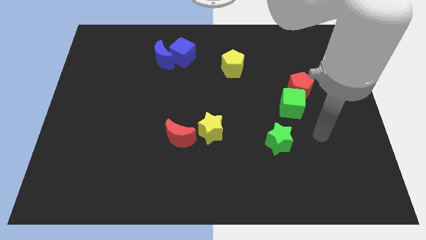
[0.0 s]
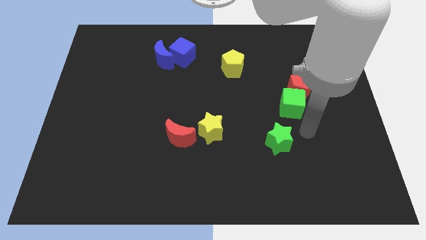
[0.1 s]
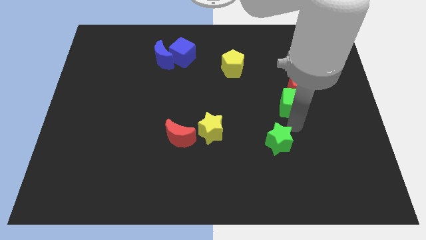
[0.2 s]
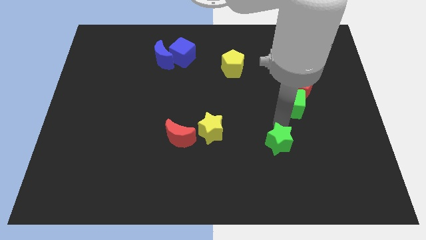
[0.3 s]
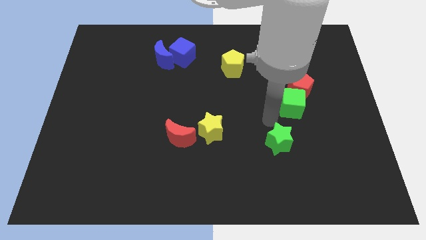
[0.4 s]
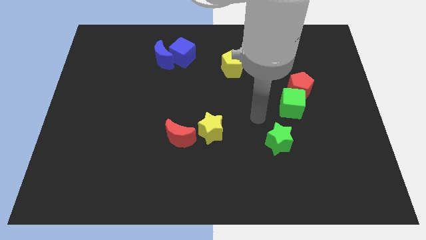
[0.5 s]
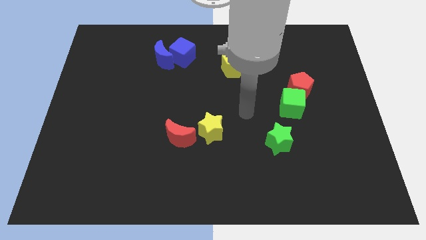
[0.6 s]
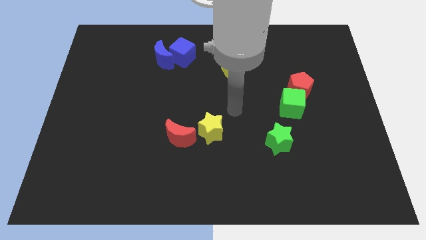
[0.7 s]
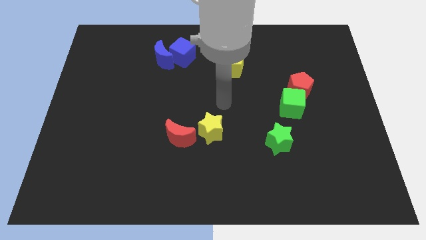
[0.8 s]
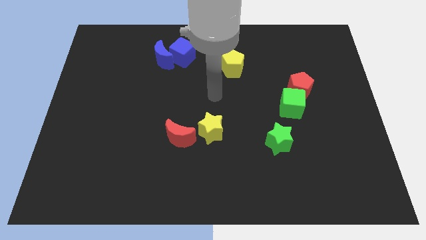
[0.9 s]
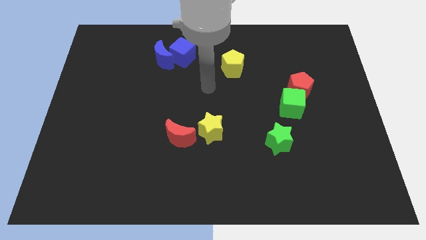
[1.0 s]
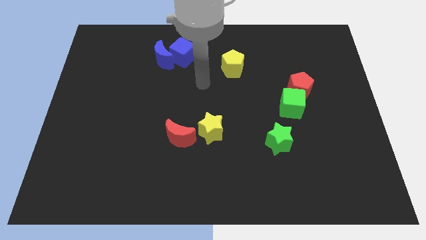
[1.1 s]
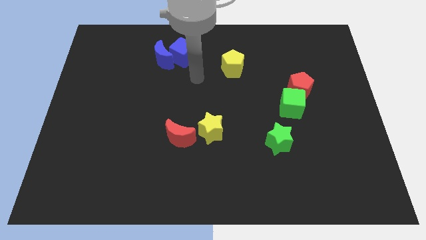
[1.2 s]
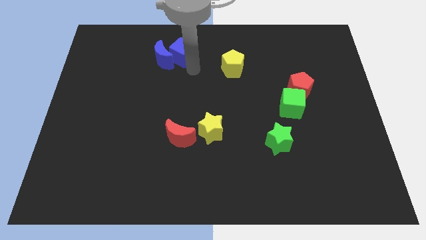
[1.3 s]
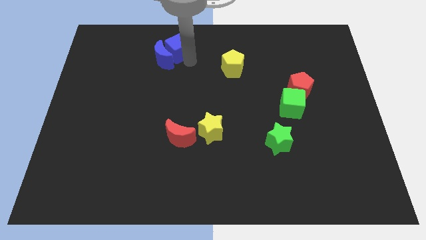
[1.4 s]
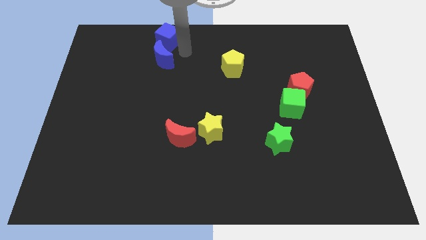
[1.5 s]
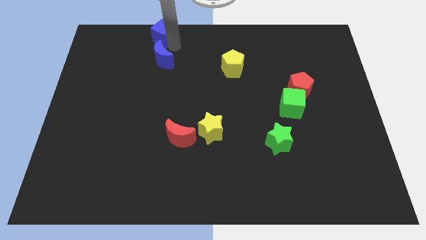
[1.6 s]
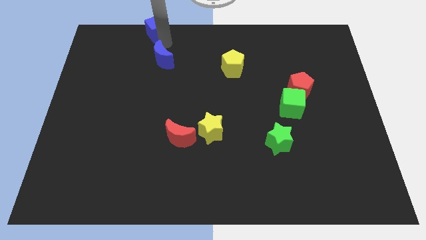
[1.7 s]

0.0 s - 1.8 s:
move the blue moon away from the blue cube

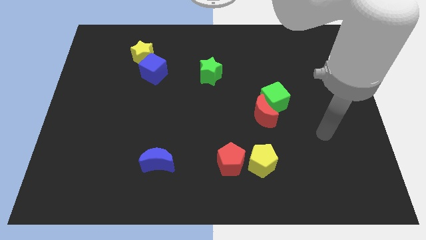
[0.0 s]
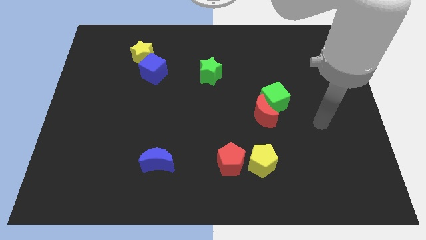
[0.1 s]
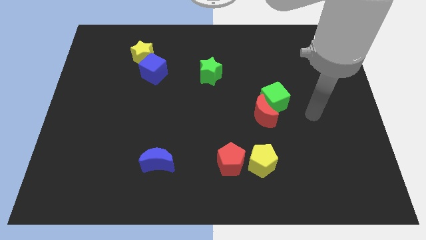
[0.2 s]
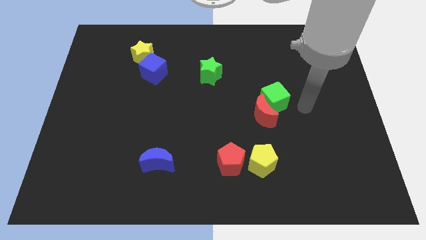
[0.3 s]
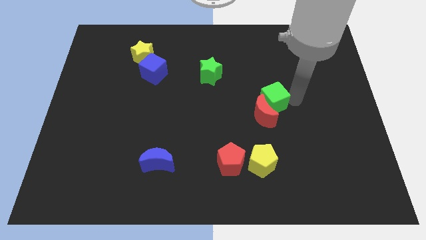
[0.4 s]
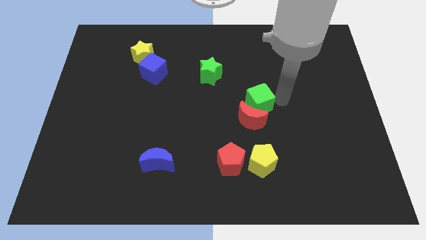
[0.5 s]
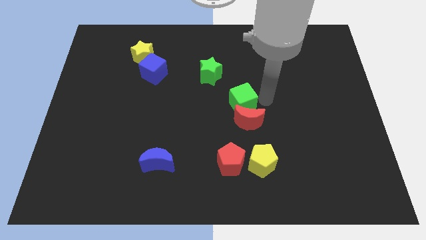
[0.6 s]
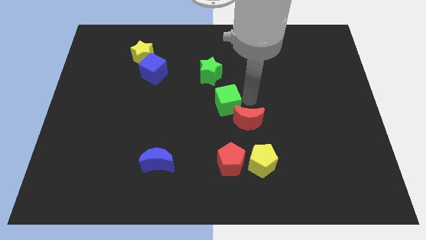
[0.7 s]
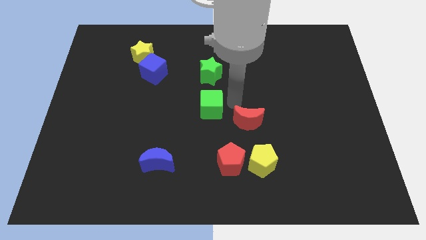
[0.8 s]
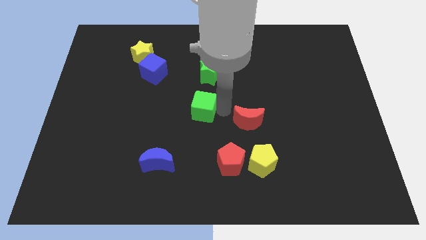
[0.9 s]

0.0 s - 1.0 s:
separate the red moon from the green cube

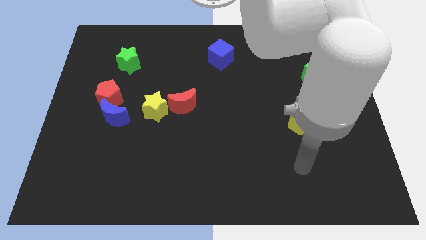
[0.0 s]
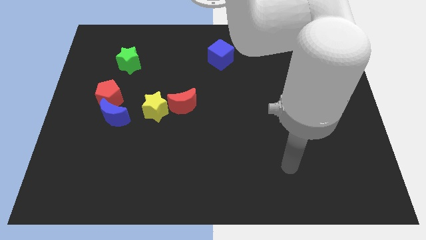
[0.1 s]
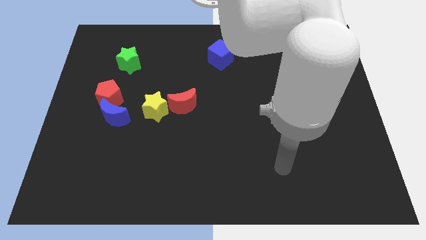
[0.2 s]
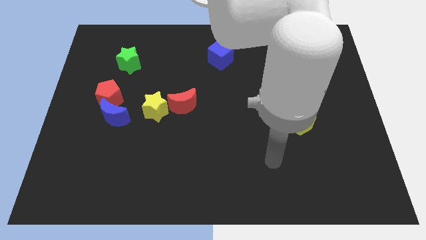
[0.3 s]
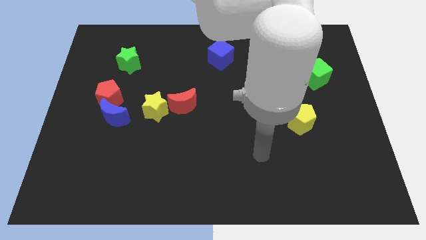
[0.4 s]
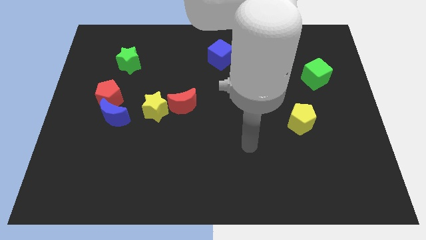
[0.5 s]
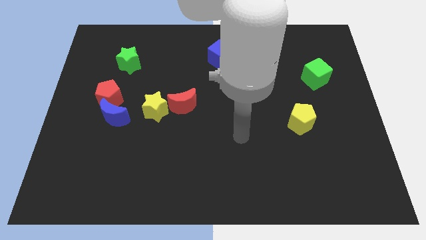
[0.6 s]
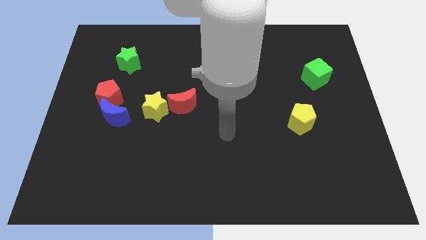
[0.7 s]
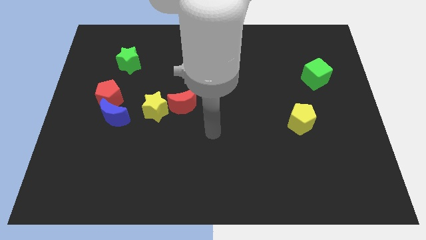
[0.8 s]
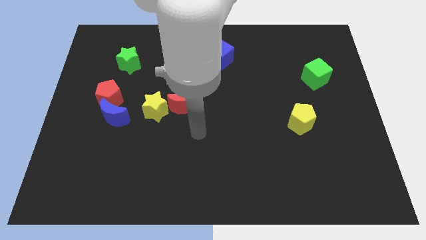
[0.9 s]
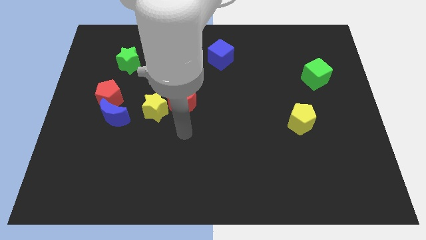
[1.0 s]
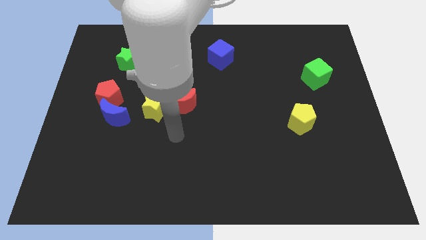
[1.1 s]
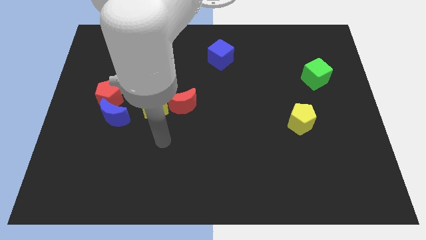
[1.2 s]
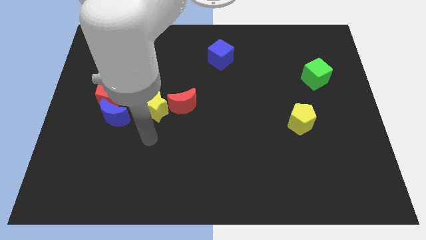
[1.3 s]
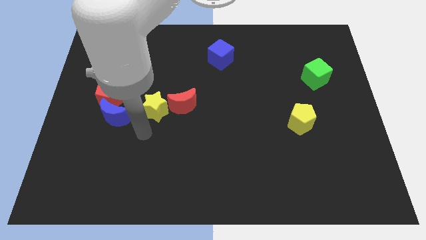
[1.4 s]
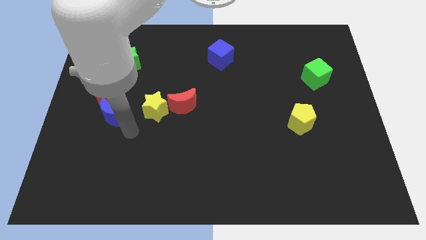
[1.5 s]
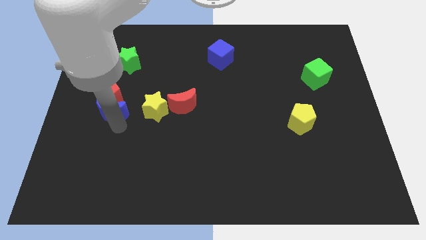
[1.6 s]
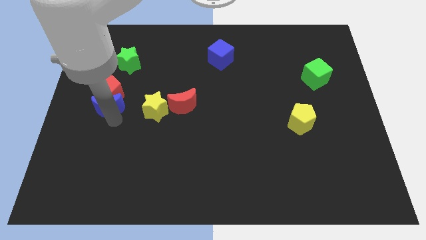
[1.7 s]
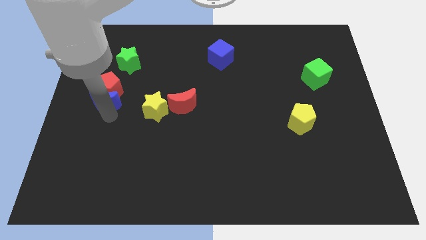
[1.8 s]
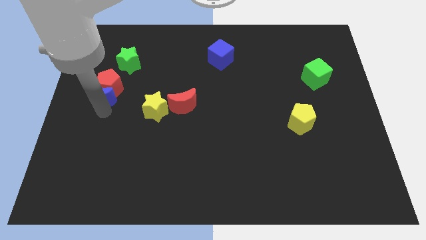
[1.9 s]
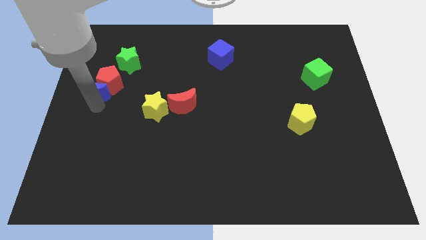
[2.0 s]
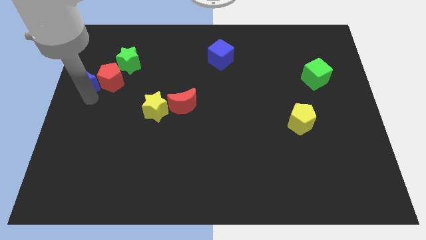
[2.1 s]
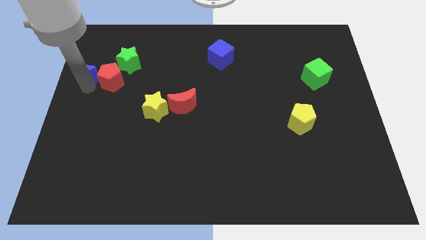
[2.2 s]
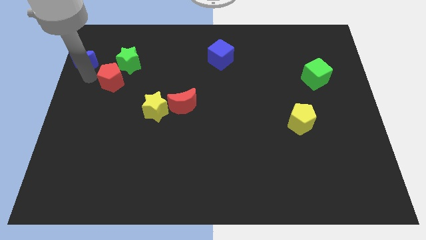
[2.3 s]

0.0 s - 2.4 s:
move the red pentagon away from the blue moon

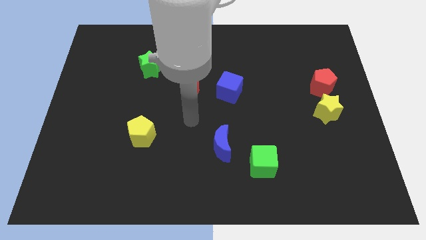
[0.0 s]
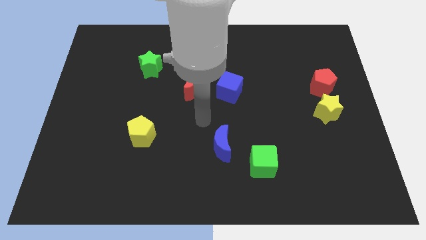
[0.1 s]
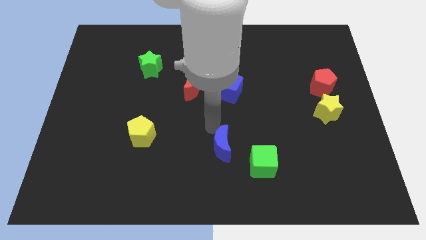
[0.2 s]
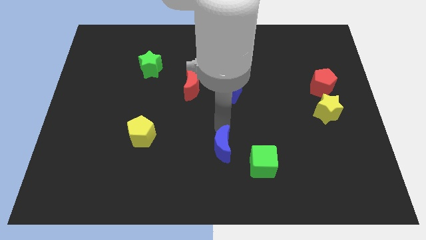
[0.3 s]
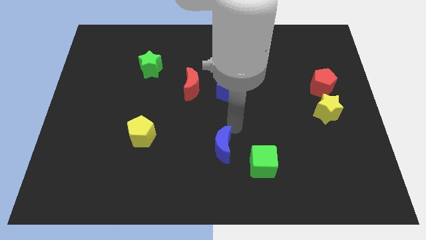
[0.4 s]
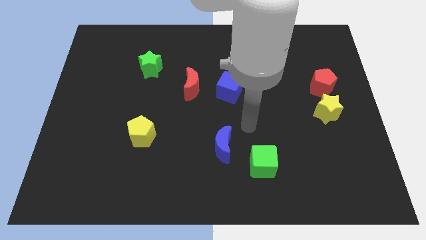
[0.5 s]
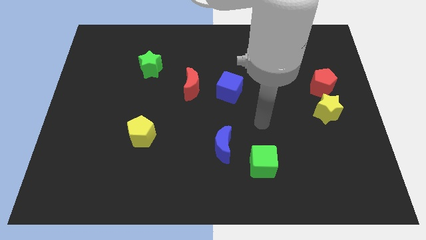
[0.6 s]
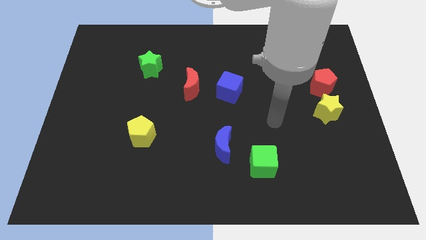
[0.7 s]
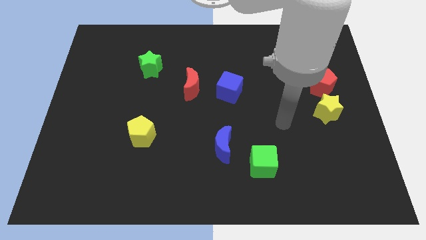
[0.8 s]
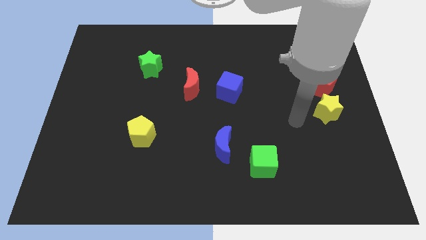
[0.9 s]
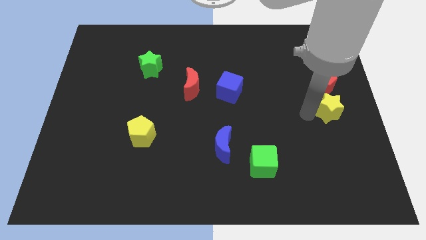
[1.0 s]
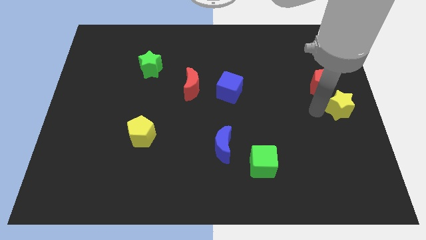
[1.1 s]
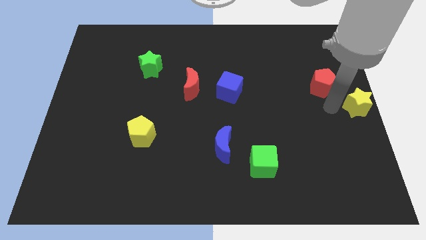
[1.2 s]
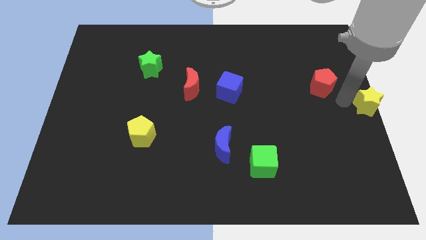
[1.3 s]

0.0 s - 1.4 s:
pull the red pentagon apart from the yellow star

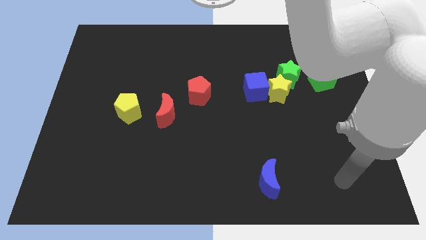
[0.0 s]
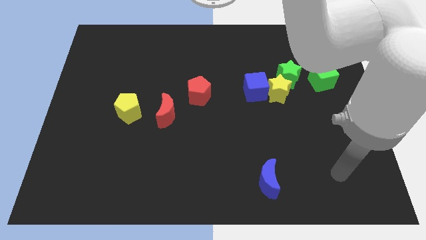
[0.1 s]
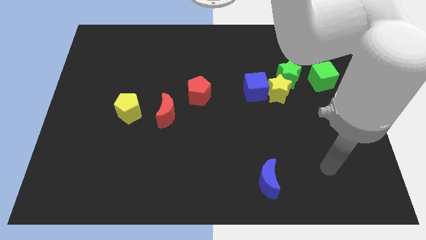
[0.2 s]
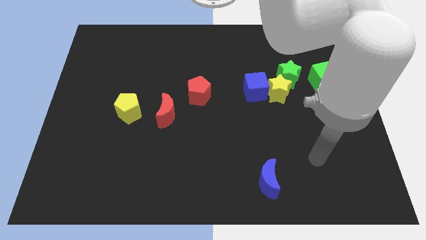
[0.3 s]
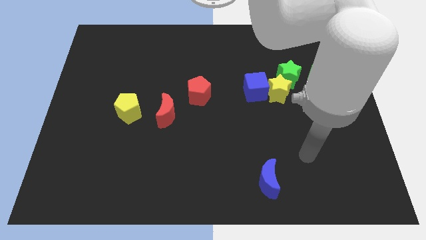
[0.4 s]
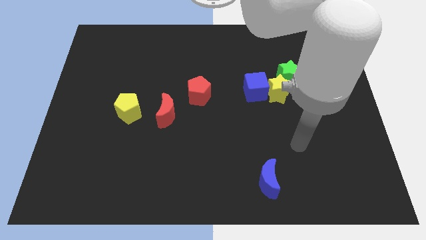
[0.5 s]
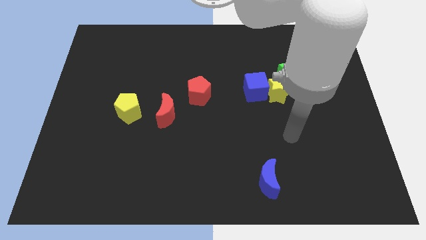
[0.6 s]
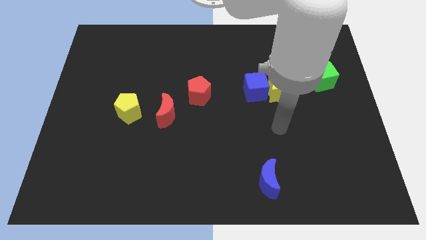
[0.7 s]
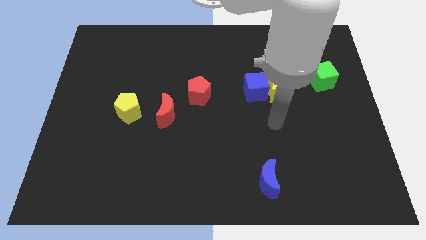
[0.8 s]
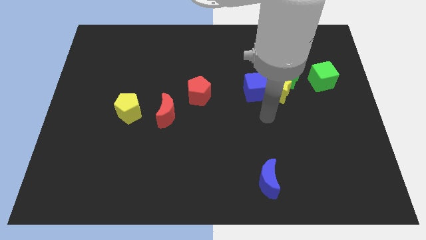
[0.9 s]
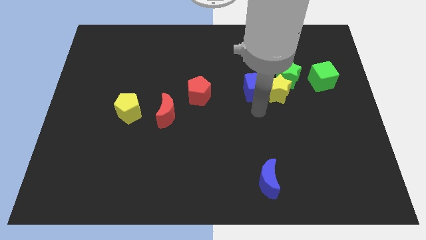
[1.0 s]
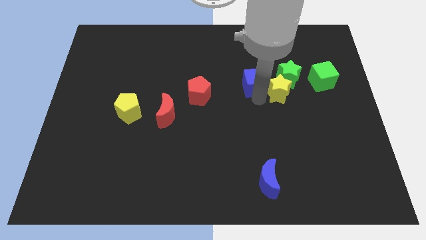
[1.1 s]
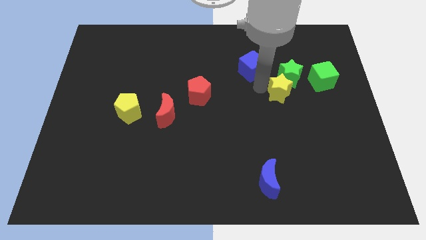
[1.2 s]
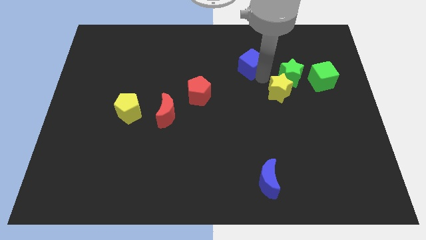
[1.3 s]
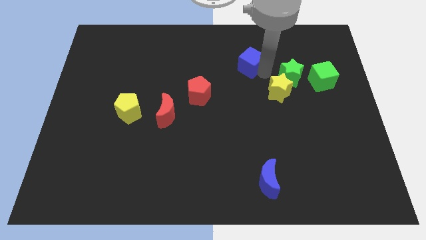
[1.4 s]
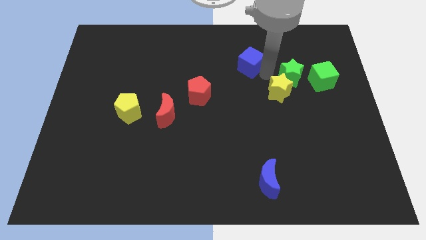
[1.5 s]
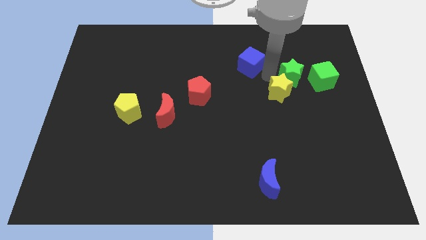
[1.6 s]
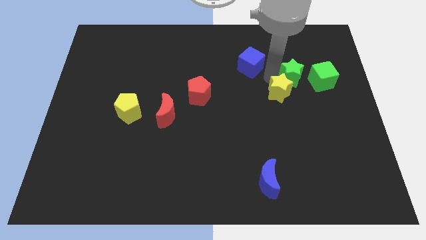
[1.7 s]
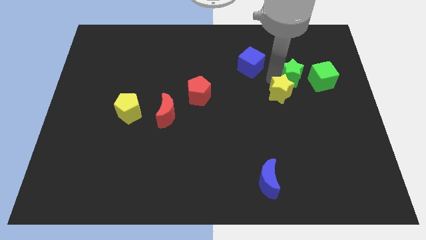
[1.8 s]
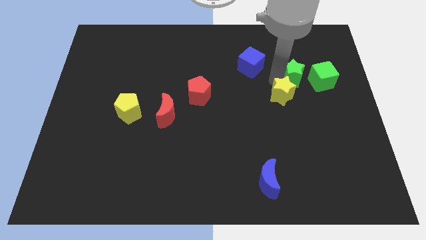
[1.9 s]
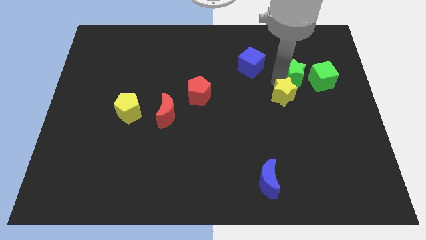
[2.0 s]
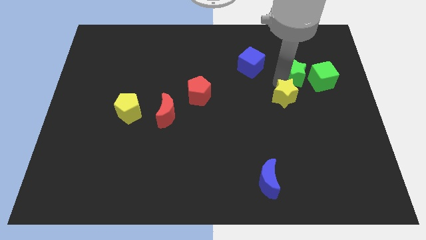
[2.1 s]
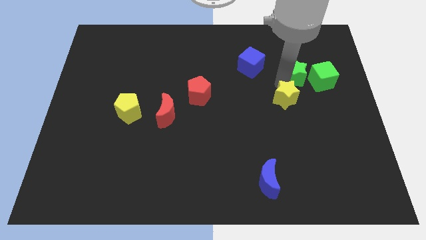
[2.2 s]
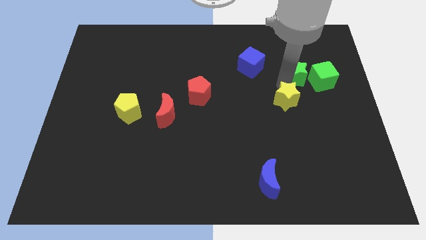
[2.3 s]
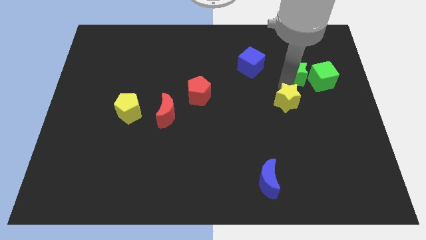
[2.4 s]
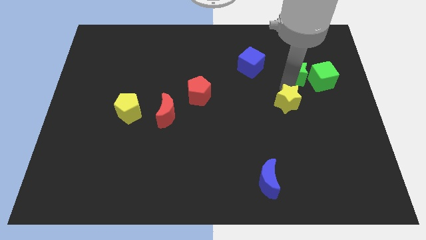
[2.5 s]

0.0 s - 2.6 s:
move the yellow star away from the blue cube and green star
